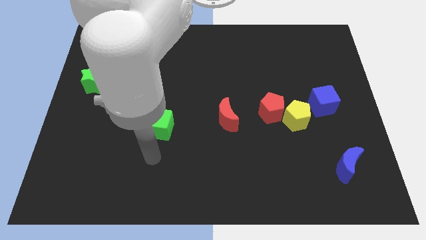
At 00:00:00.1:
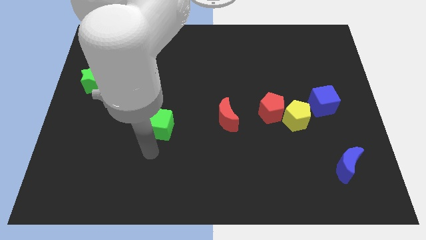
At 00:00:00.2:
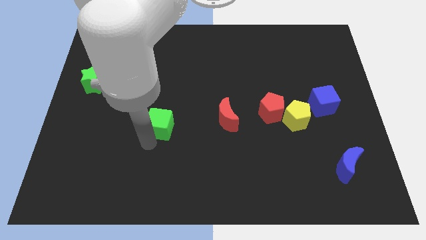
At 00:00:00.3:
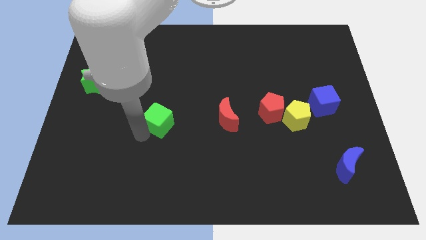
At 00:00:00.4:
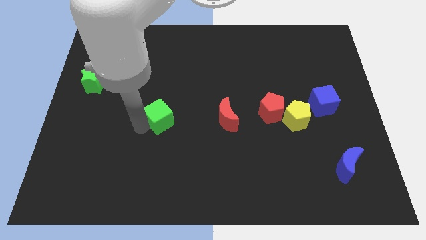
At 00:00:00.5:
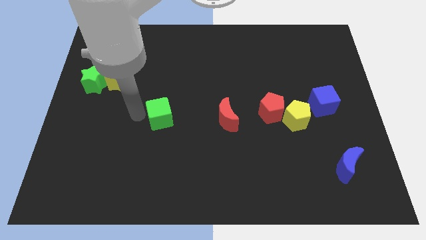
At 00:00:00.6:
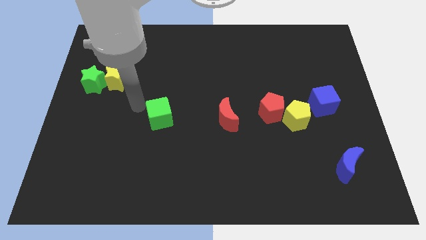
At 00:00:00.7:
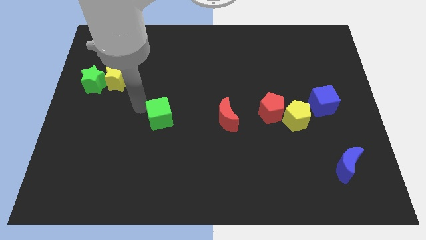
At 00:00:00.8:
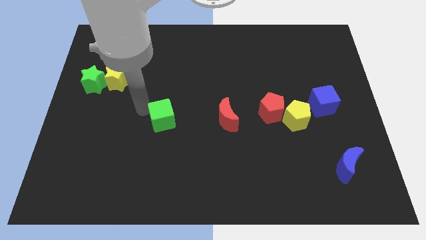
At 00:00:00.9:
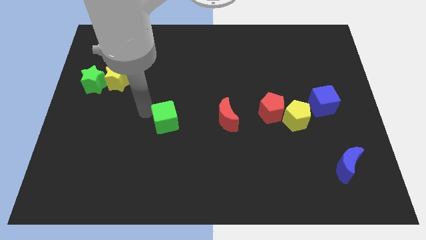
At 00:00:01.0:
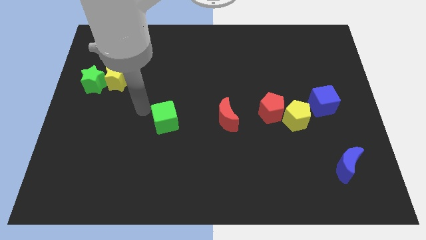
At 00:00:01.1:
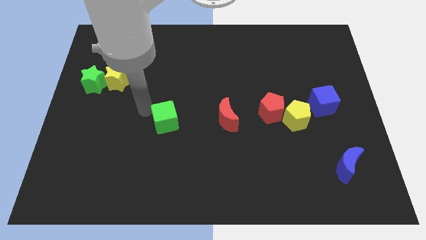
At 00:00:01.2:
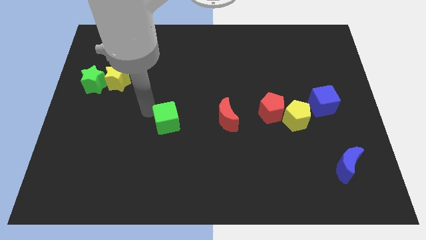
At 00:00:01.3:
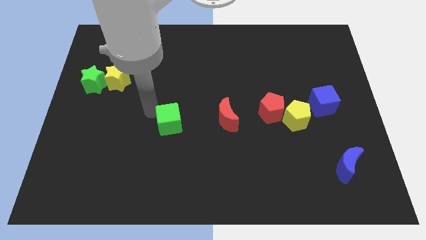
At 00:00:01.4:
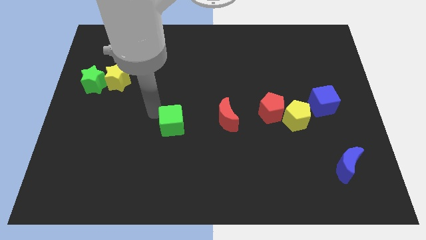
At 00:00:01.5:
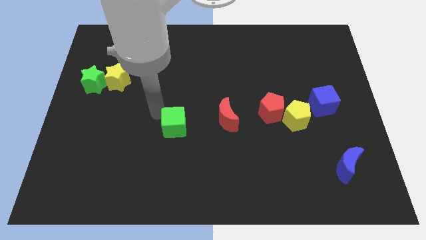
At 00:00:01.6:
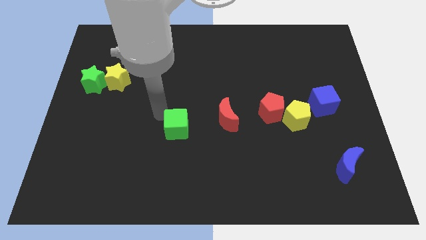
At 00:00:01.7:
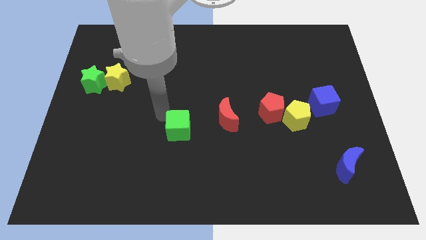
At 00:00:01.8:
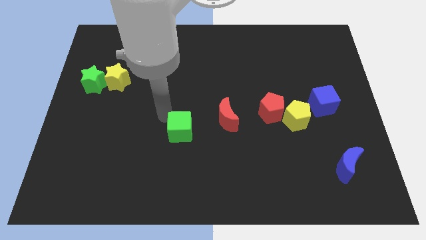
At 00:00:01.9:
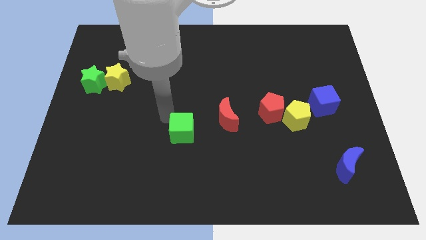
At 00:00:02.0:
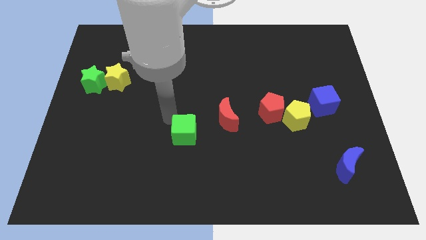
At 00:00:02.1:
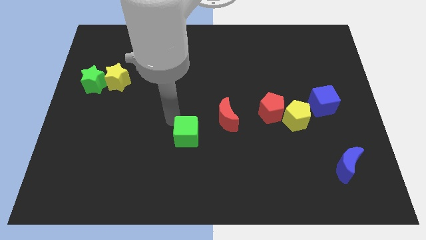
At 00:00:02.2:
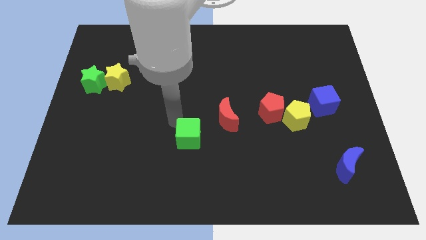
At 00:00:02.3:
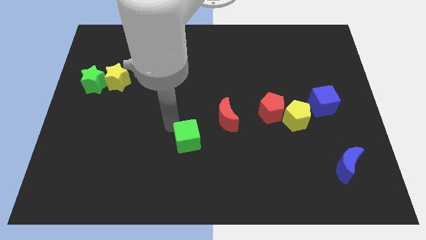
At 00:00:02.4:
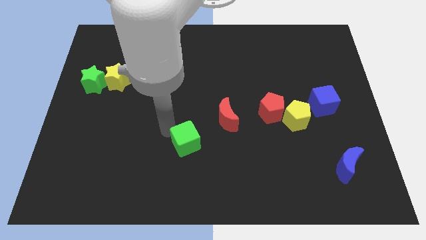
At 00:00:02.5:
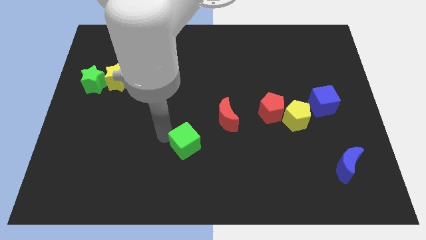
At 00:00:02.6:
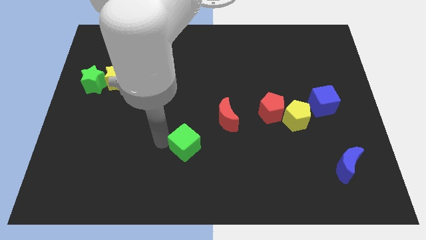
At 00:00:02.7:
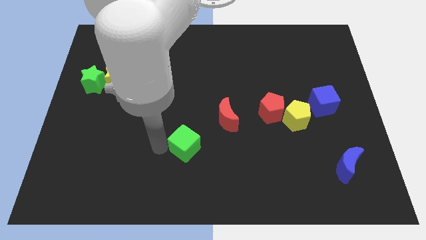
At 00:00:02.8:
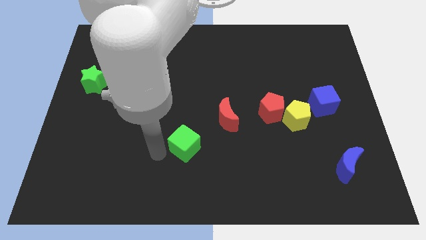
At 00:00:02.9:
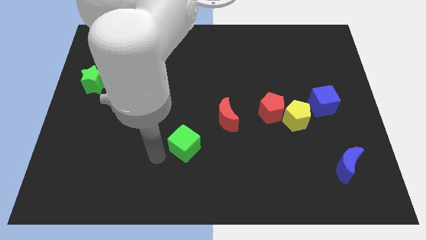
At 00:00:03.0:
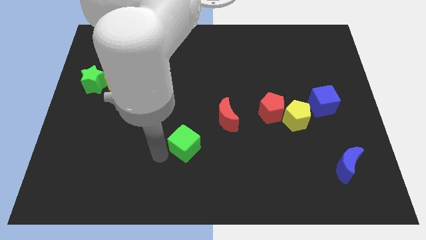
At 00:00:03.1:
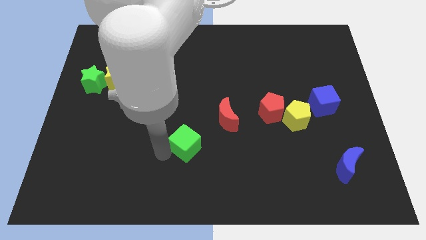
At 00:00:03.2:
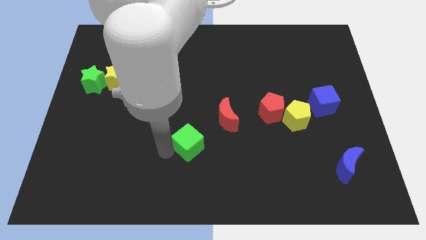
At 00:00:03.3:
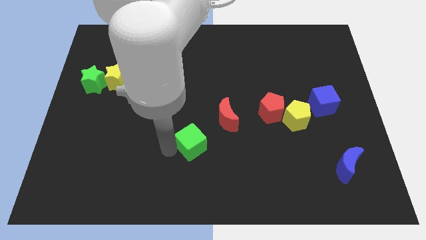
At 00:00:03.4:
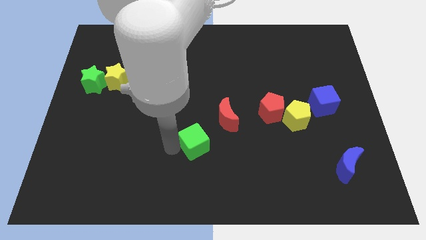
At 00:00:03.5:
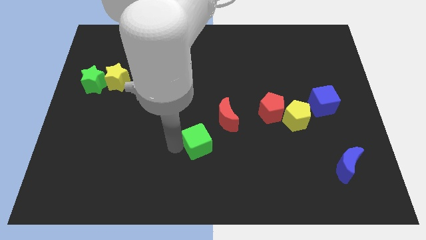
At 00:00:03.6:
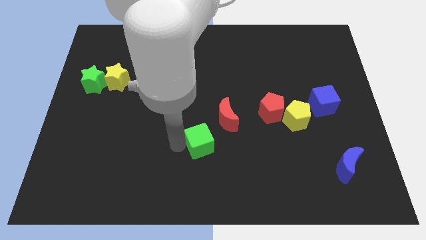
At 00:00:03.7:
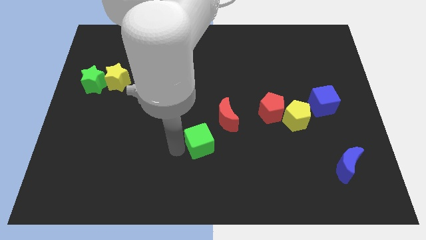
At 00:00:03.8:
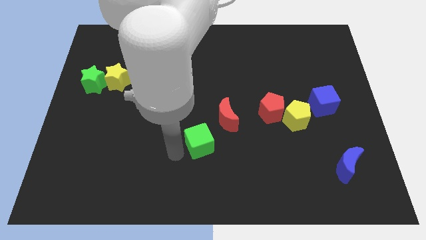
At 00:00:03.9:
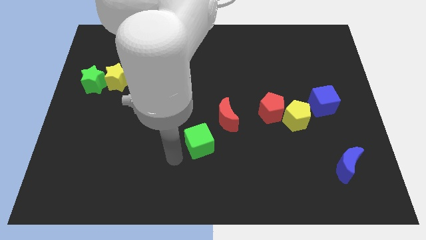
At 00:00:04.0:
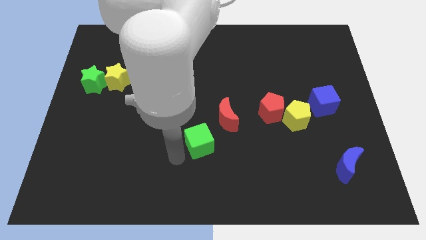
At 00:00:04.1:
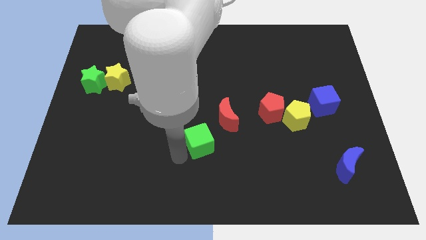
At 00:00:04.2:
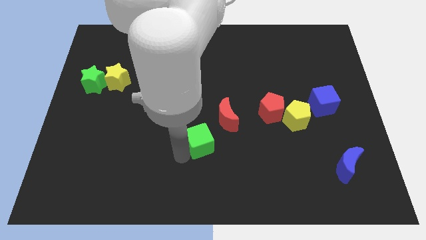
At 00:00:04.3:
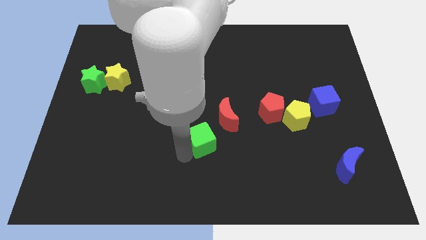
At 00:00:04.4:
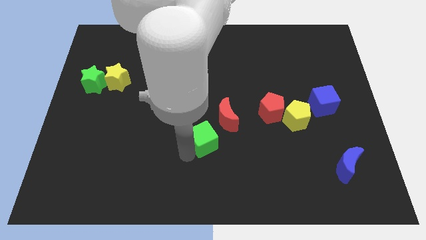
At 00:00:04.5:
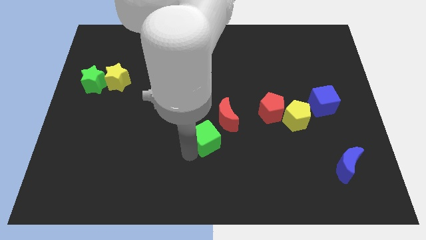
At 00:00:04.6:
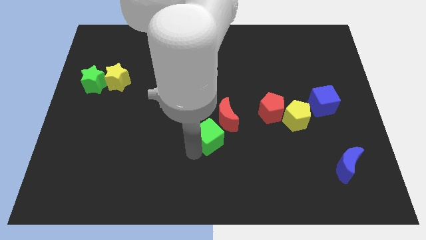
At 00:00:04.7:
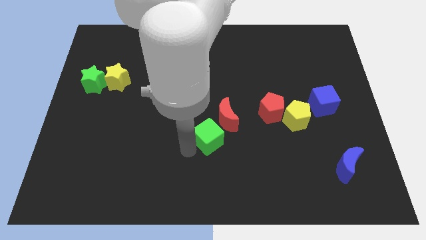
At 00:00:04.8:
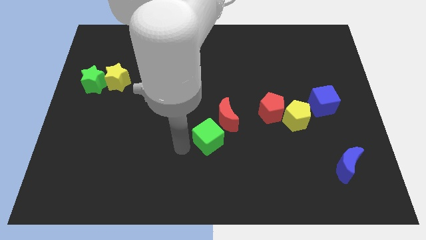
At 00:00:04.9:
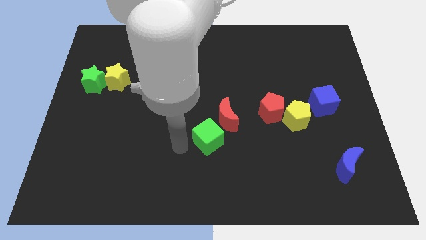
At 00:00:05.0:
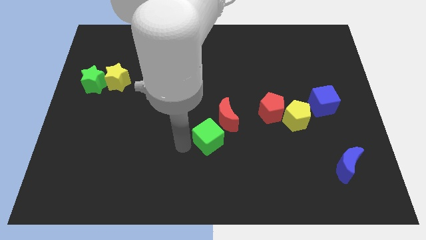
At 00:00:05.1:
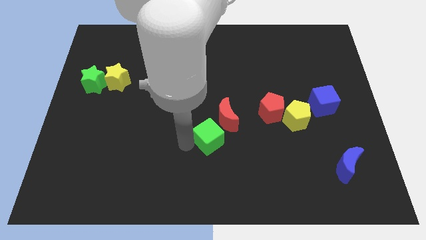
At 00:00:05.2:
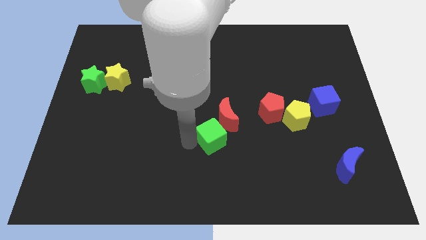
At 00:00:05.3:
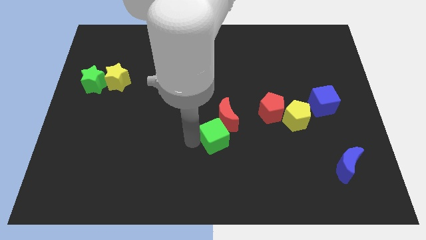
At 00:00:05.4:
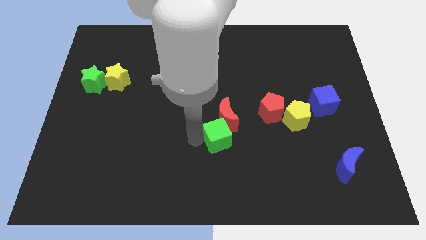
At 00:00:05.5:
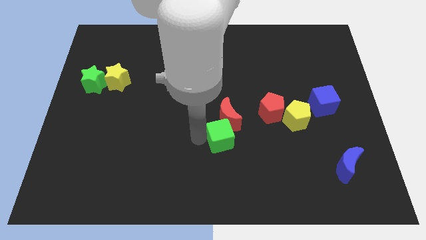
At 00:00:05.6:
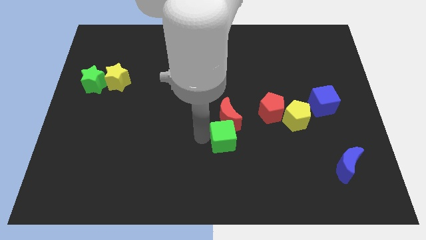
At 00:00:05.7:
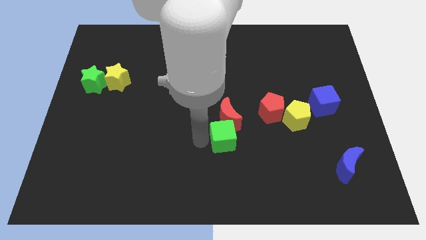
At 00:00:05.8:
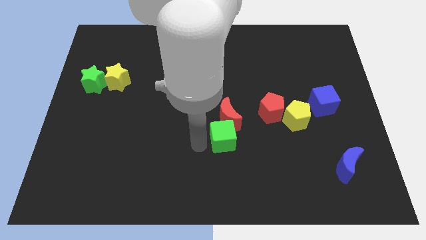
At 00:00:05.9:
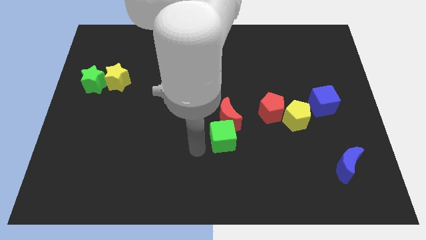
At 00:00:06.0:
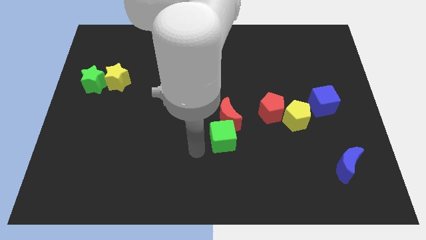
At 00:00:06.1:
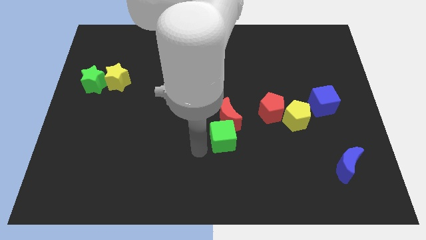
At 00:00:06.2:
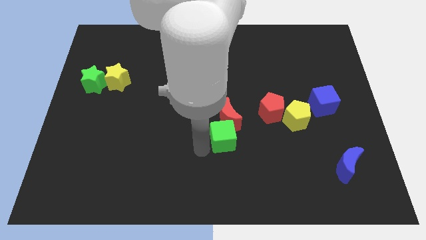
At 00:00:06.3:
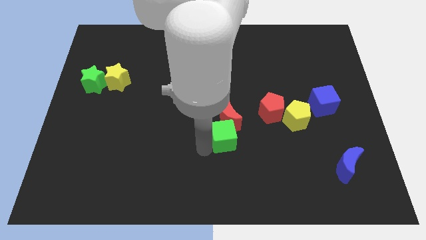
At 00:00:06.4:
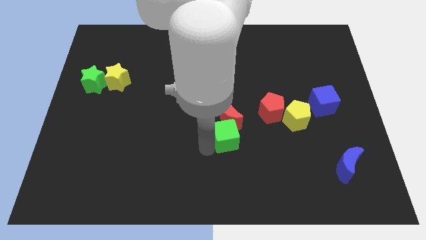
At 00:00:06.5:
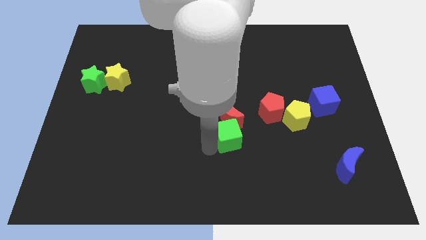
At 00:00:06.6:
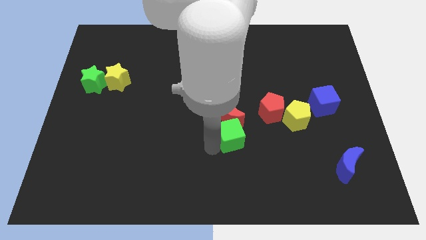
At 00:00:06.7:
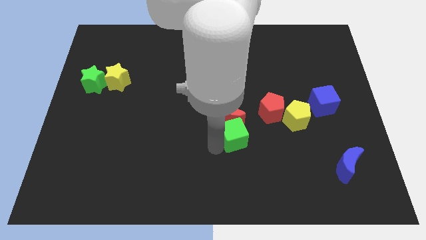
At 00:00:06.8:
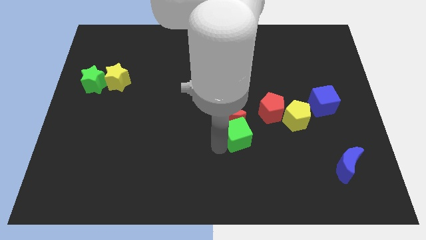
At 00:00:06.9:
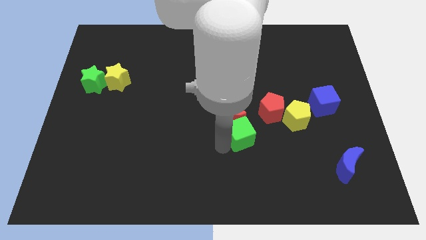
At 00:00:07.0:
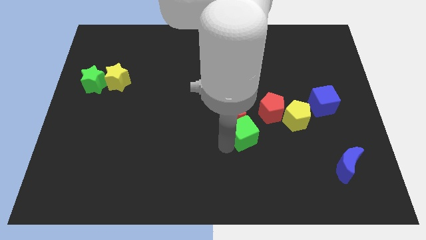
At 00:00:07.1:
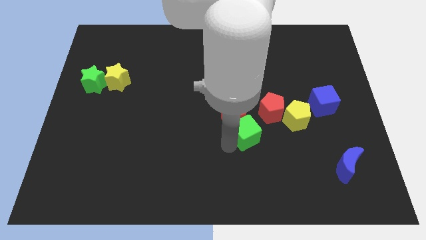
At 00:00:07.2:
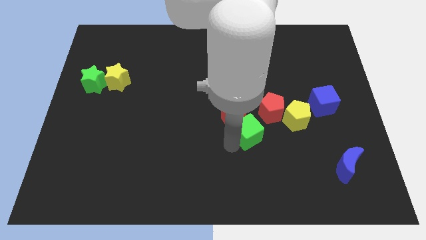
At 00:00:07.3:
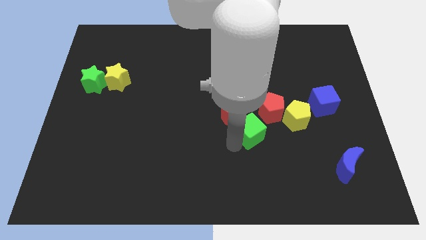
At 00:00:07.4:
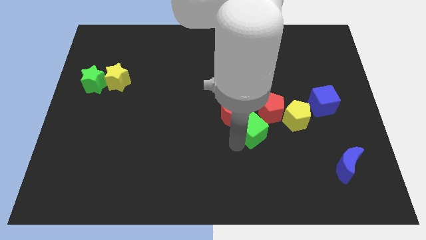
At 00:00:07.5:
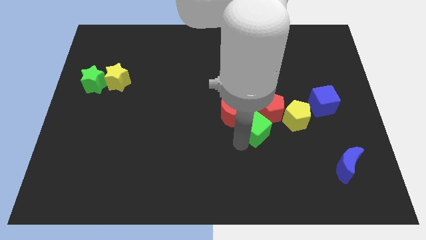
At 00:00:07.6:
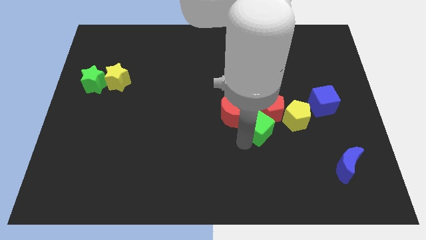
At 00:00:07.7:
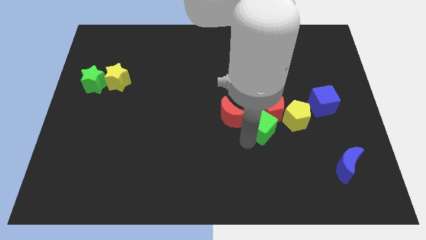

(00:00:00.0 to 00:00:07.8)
move the green cube to the red pentagon
